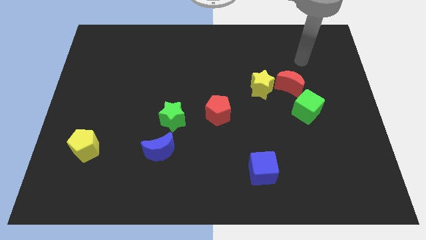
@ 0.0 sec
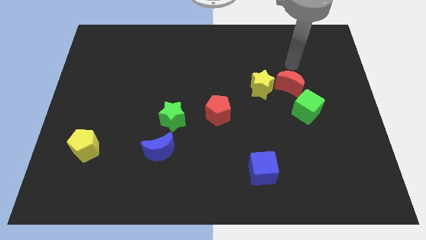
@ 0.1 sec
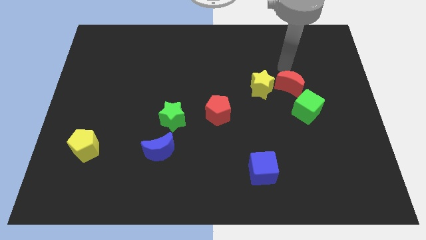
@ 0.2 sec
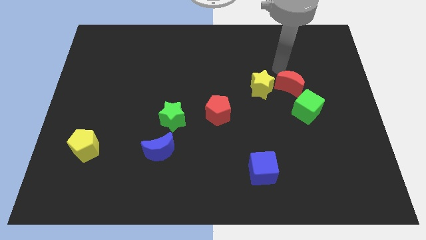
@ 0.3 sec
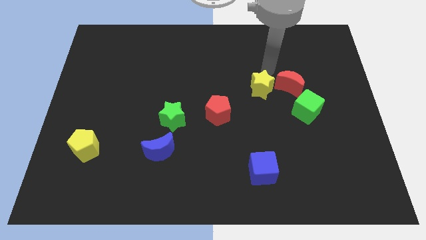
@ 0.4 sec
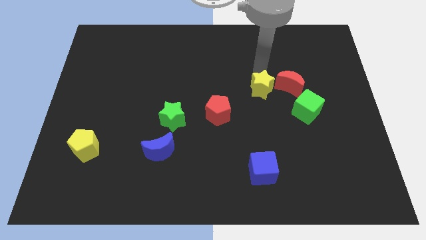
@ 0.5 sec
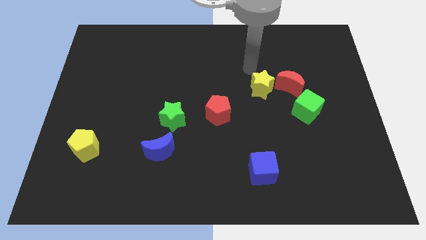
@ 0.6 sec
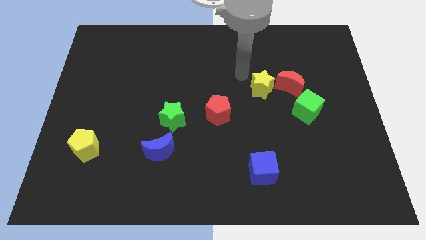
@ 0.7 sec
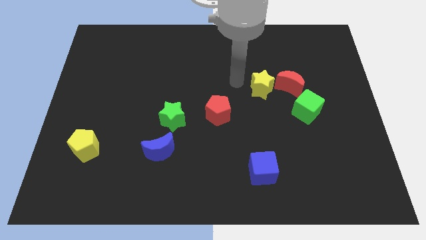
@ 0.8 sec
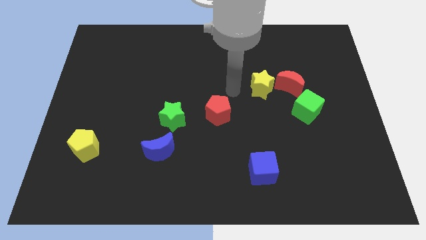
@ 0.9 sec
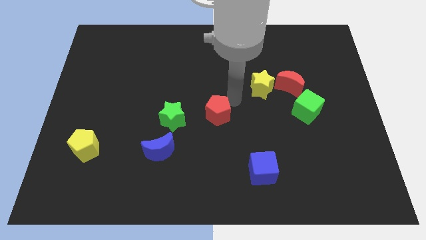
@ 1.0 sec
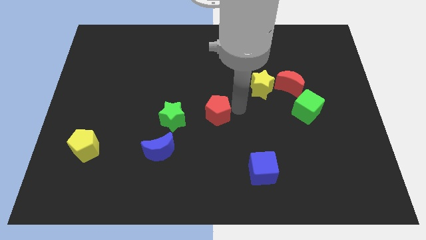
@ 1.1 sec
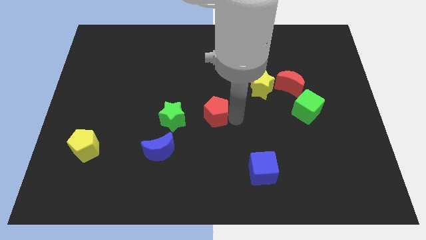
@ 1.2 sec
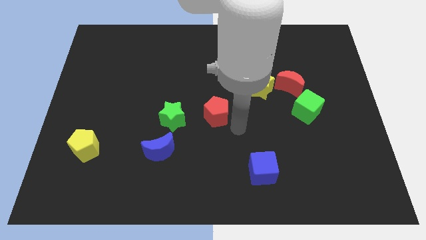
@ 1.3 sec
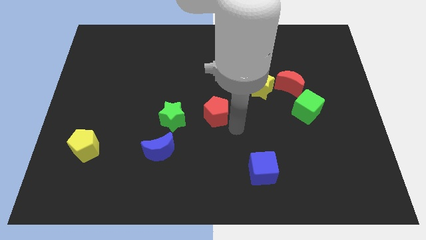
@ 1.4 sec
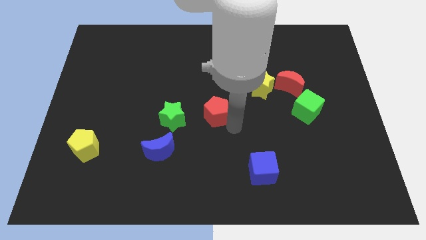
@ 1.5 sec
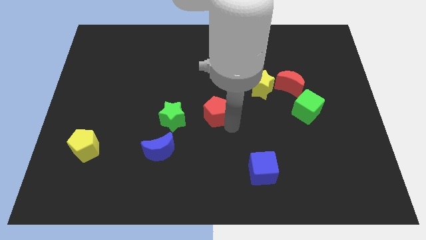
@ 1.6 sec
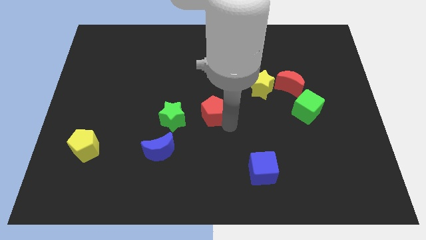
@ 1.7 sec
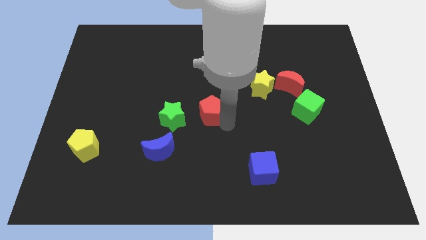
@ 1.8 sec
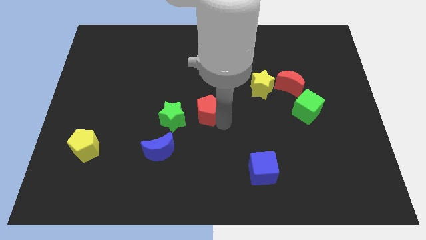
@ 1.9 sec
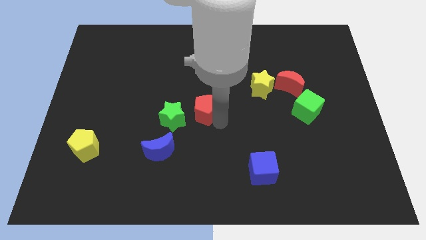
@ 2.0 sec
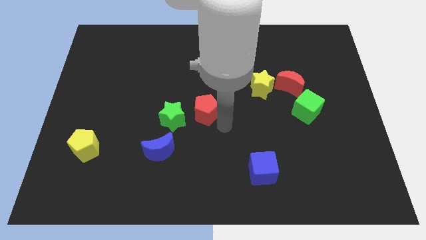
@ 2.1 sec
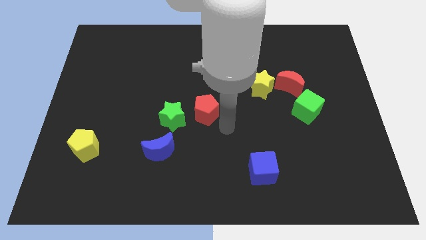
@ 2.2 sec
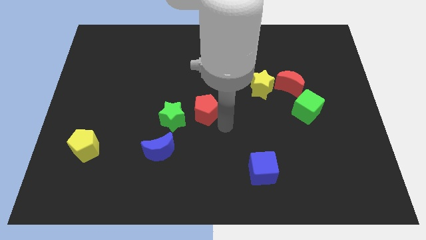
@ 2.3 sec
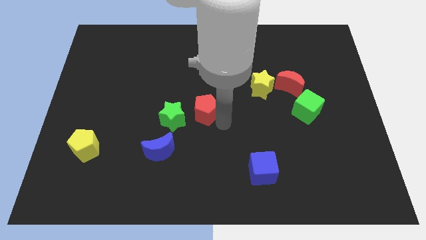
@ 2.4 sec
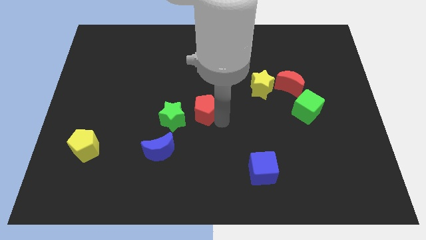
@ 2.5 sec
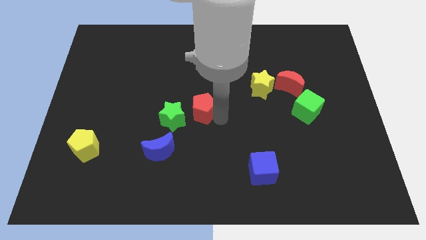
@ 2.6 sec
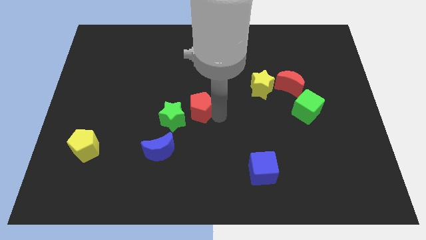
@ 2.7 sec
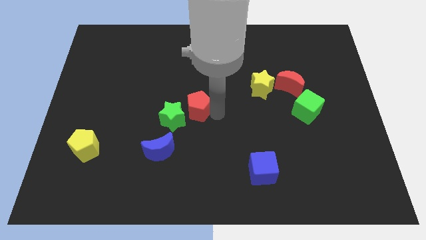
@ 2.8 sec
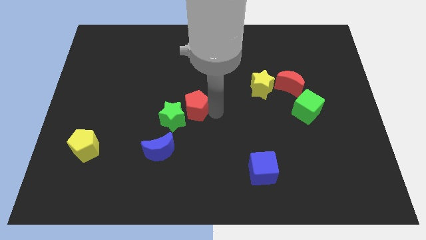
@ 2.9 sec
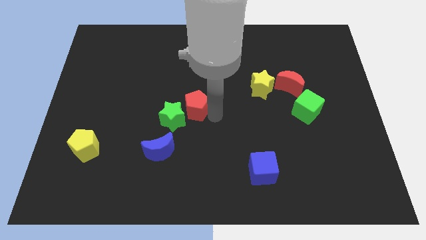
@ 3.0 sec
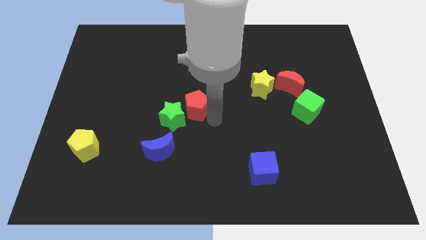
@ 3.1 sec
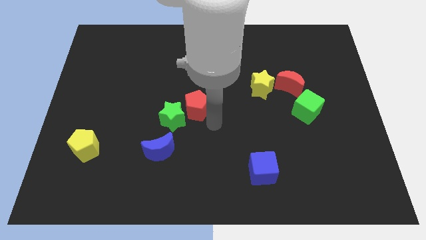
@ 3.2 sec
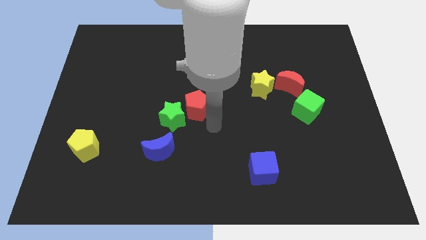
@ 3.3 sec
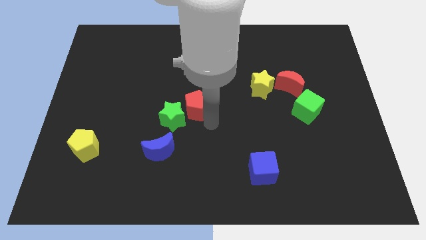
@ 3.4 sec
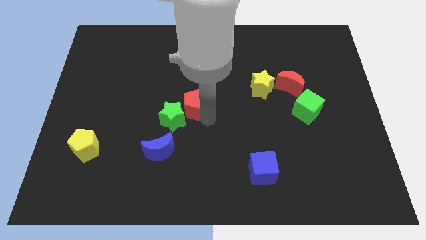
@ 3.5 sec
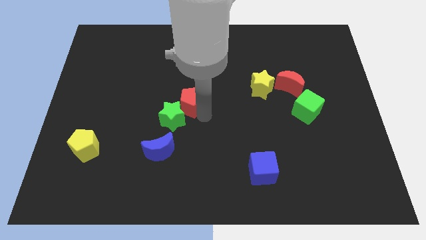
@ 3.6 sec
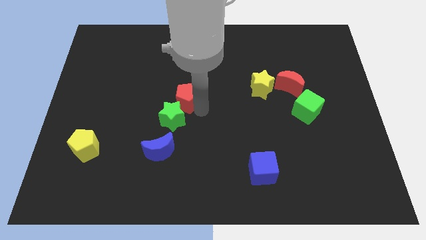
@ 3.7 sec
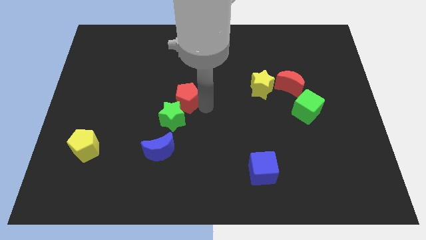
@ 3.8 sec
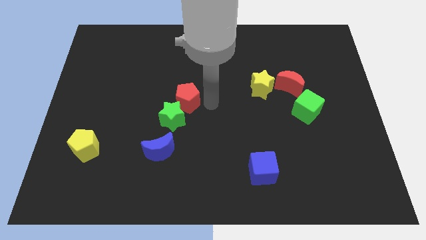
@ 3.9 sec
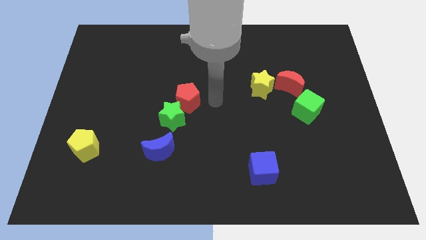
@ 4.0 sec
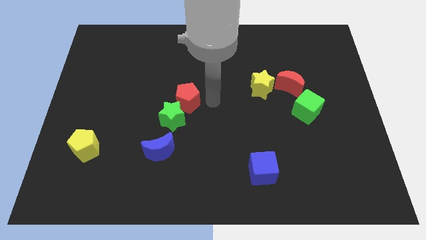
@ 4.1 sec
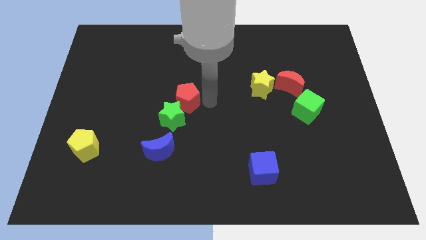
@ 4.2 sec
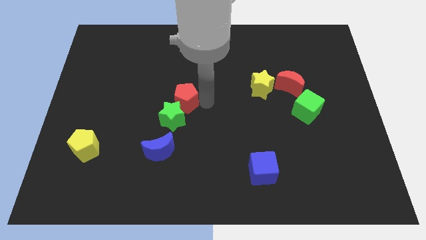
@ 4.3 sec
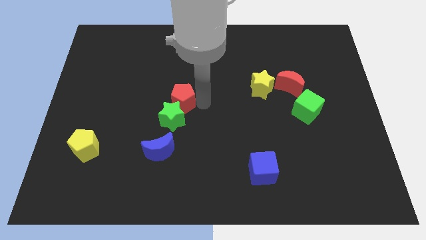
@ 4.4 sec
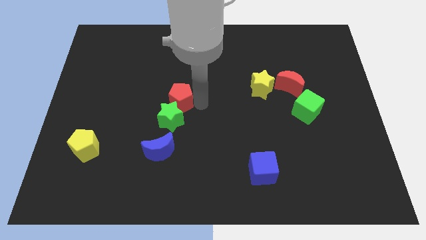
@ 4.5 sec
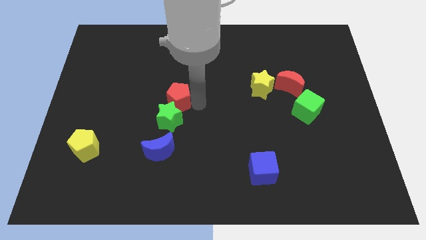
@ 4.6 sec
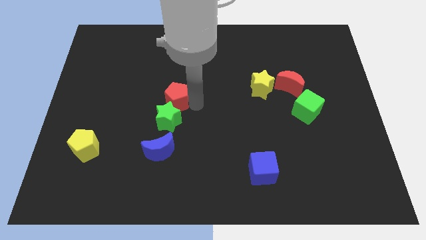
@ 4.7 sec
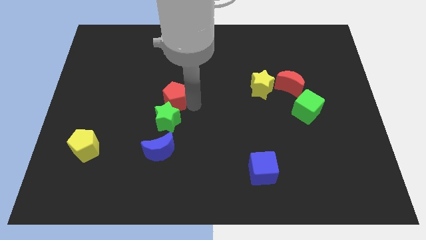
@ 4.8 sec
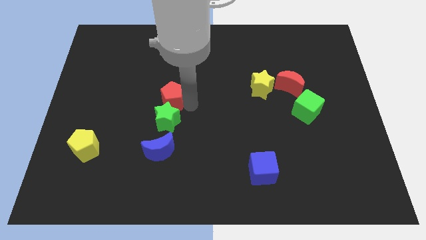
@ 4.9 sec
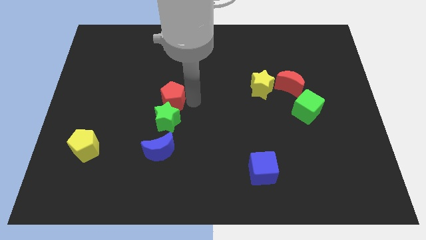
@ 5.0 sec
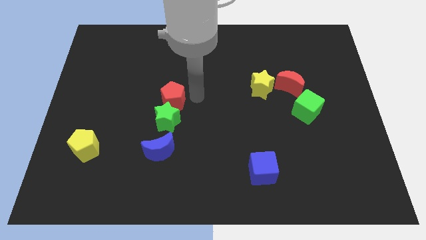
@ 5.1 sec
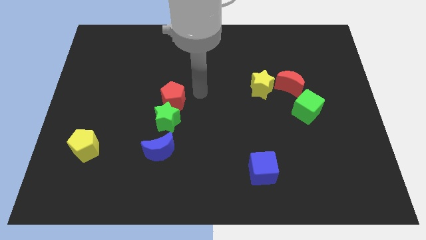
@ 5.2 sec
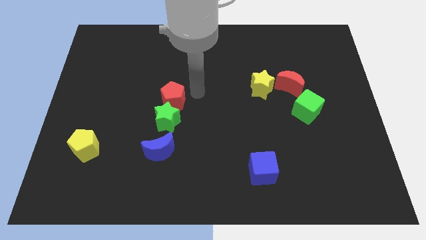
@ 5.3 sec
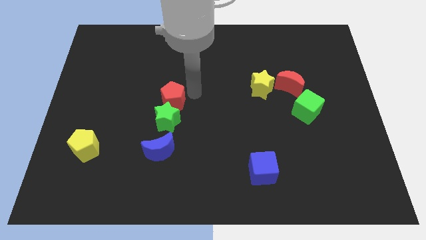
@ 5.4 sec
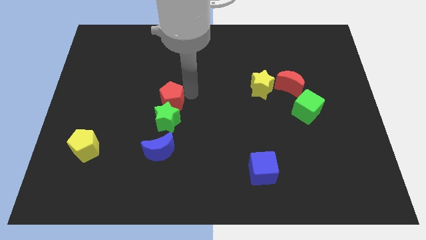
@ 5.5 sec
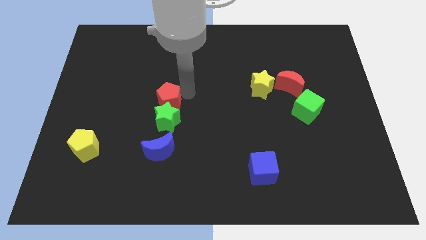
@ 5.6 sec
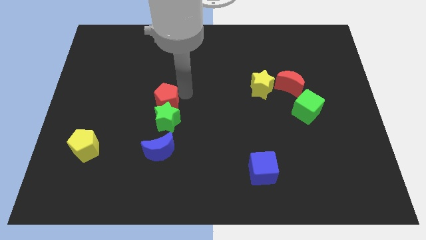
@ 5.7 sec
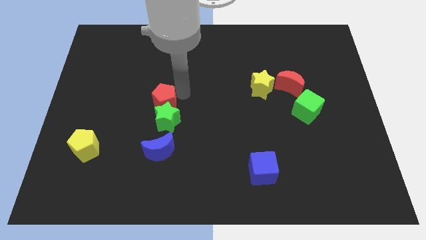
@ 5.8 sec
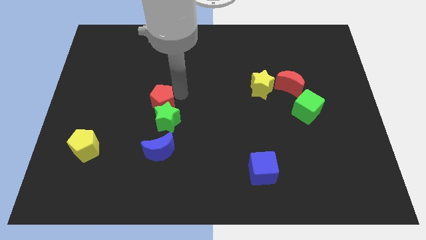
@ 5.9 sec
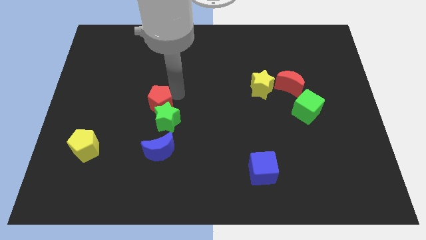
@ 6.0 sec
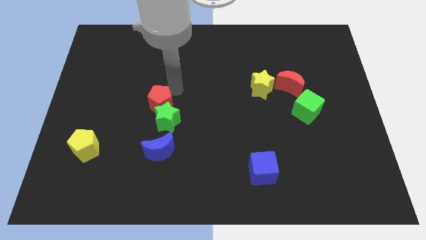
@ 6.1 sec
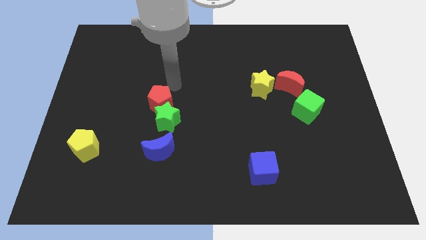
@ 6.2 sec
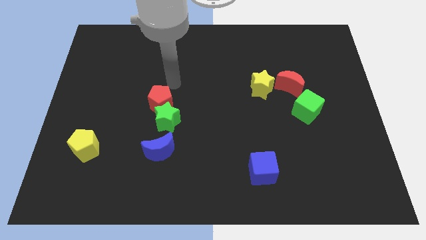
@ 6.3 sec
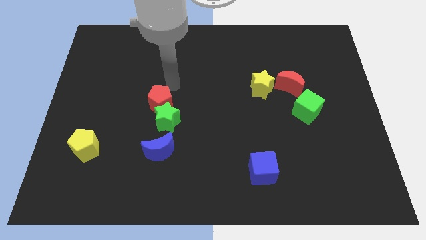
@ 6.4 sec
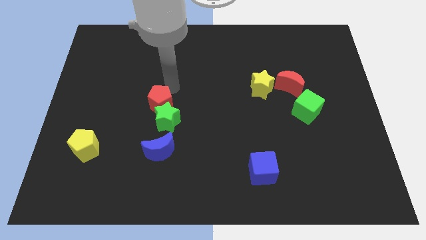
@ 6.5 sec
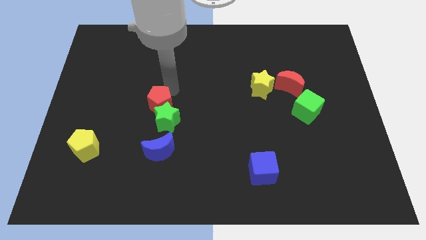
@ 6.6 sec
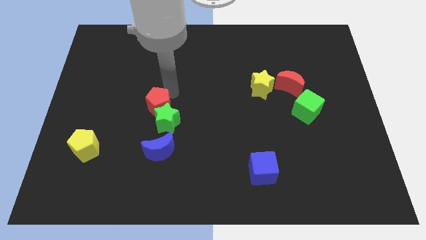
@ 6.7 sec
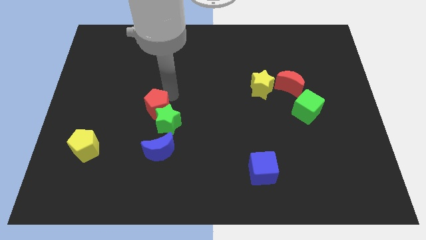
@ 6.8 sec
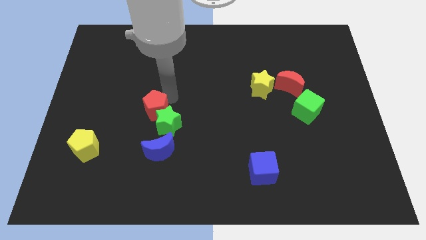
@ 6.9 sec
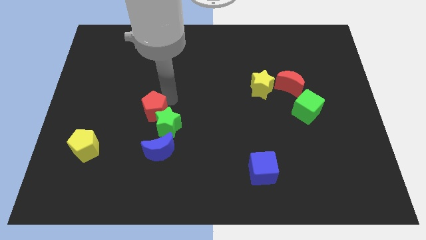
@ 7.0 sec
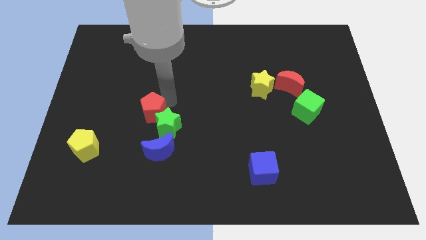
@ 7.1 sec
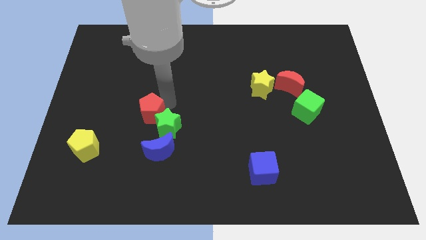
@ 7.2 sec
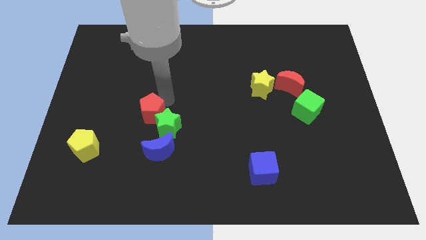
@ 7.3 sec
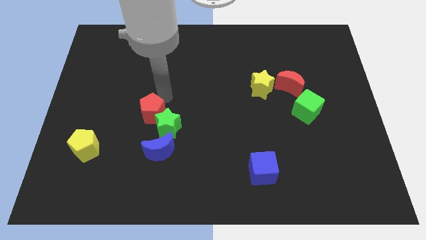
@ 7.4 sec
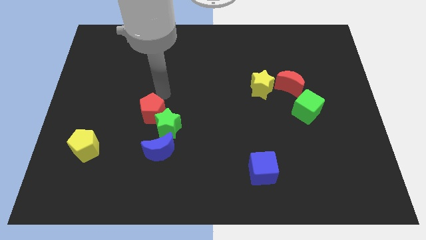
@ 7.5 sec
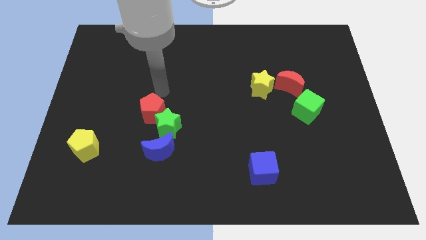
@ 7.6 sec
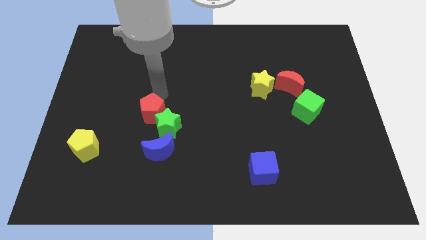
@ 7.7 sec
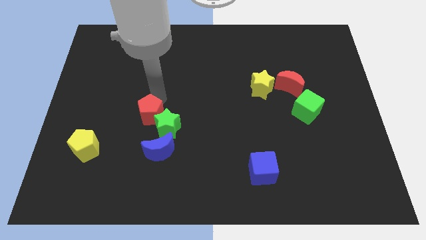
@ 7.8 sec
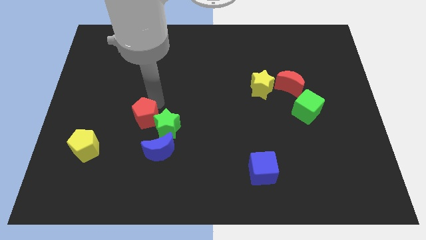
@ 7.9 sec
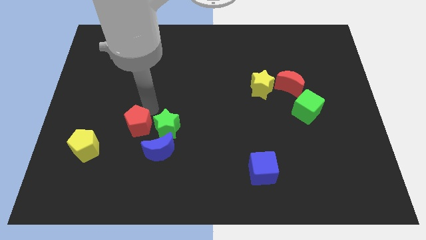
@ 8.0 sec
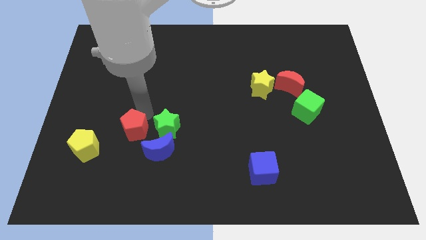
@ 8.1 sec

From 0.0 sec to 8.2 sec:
slide the red pentagon to the bottom left side of the green star
